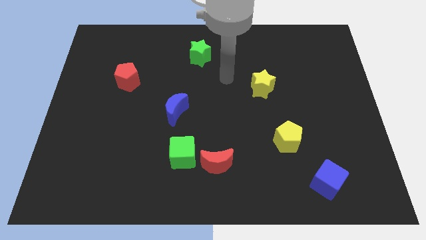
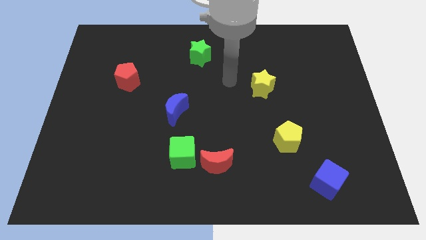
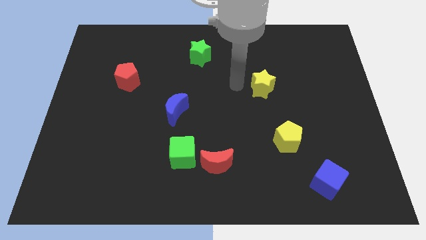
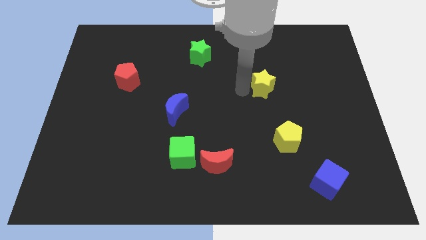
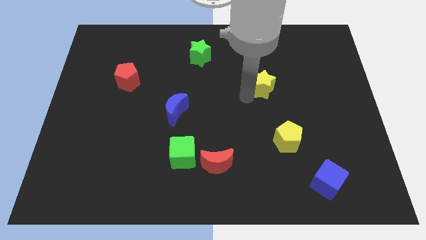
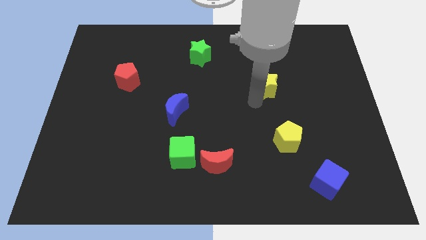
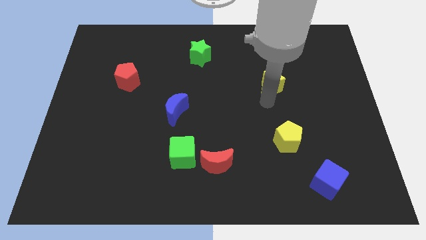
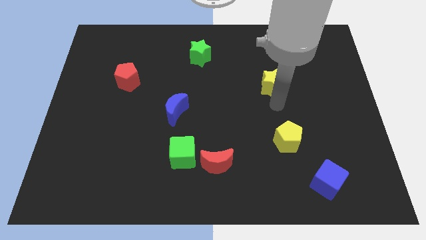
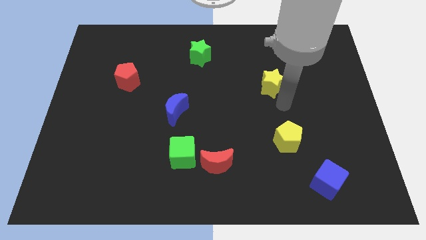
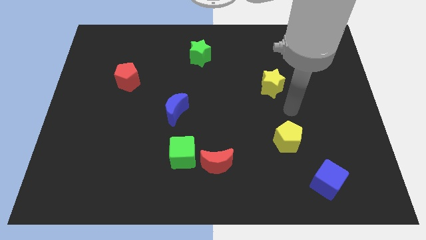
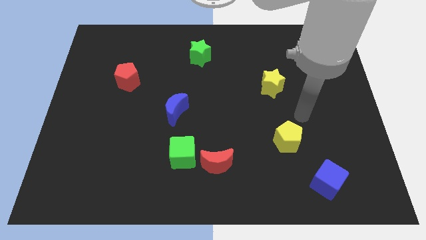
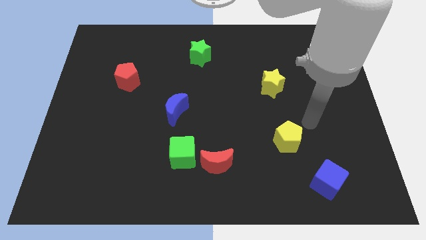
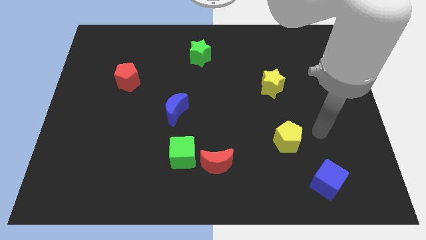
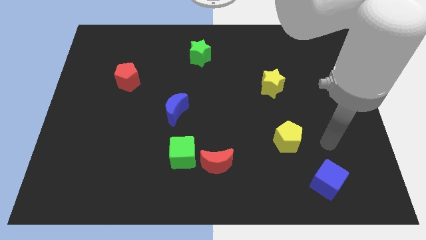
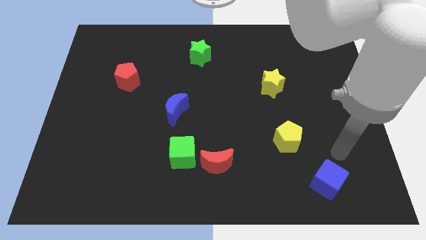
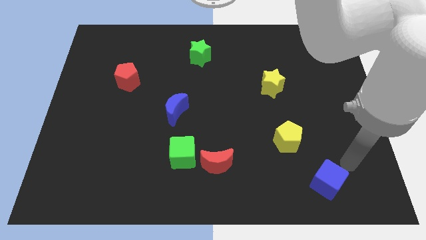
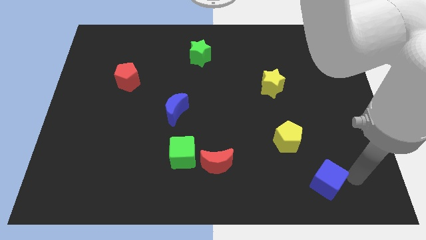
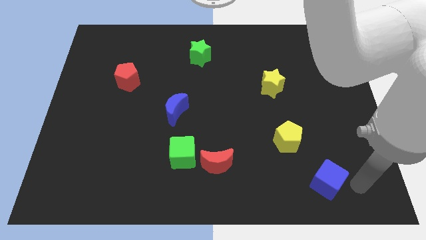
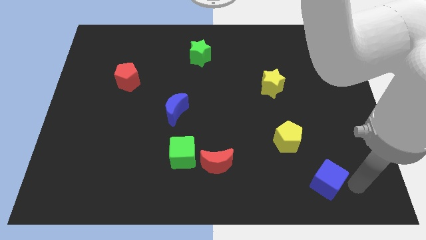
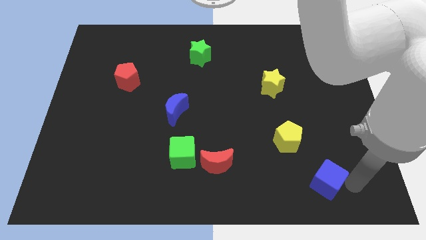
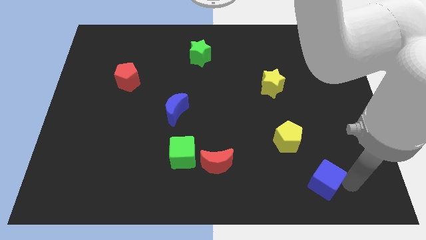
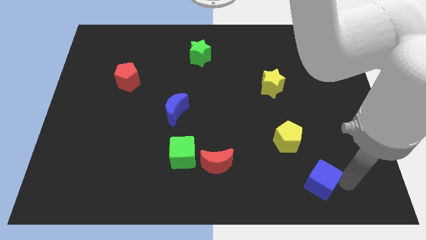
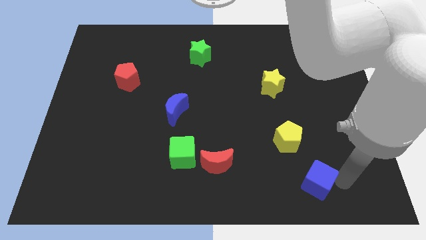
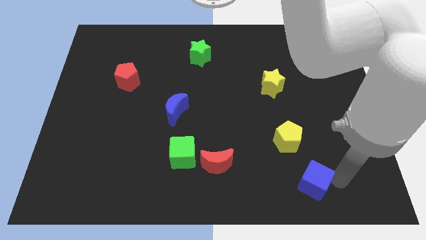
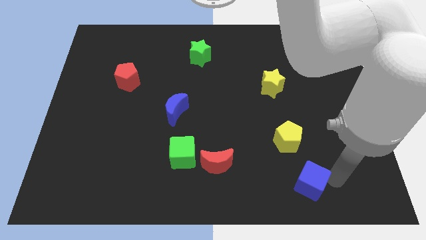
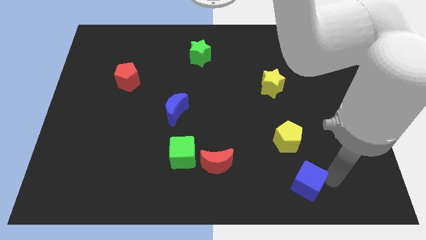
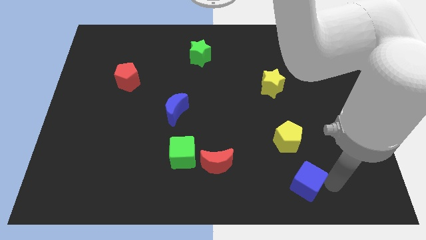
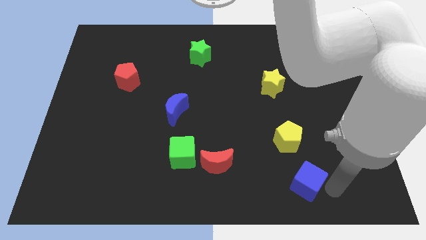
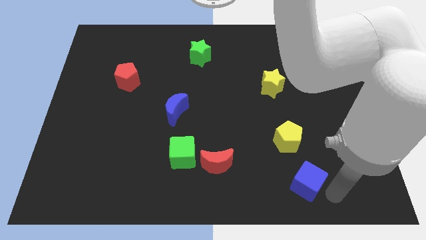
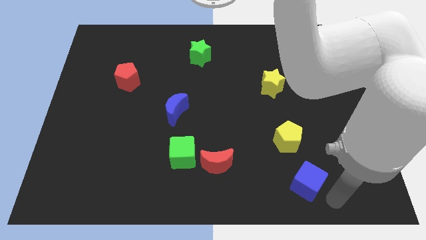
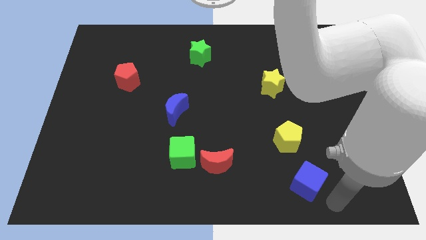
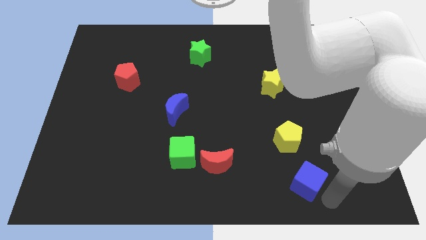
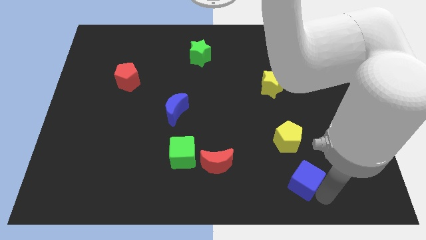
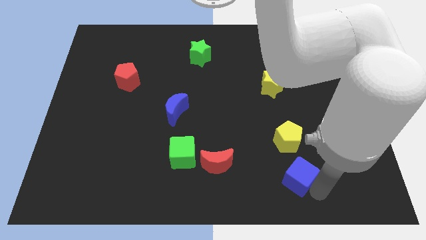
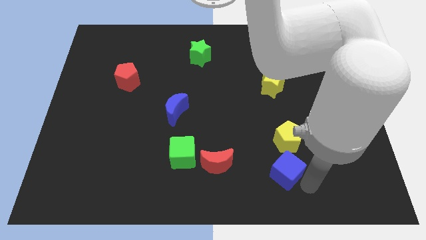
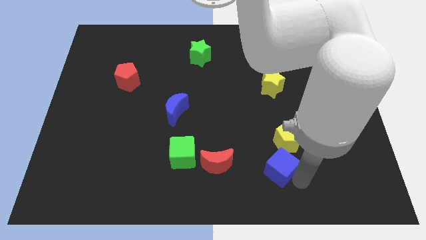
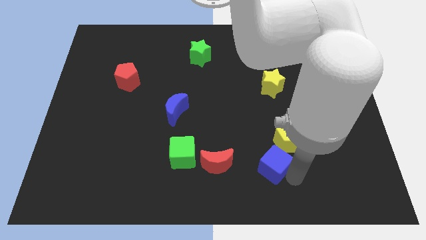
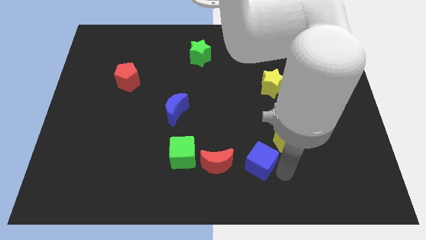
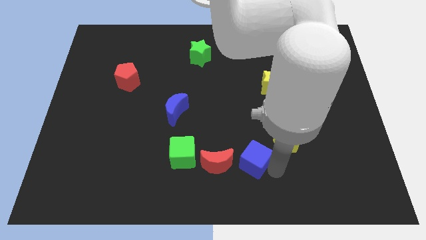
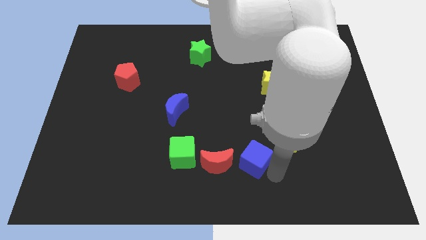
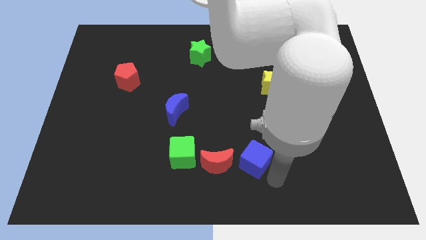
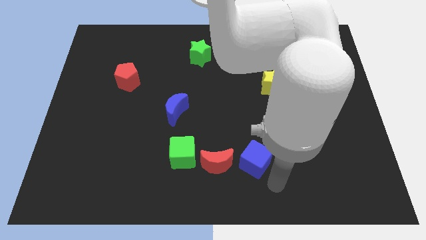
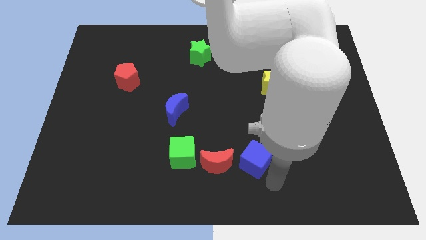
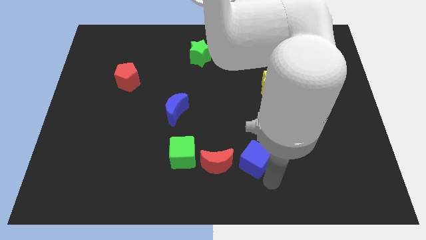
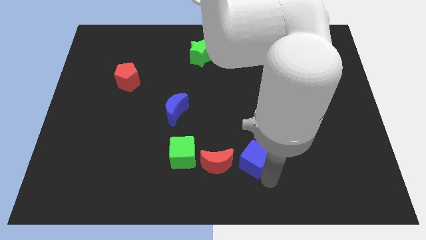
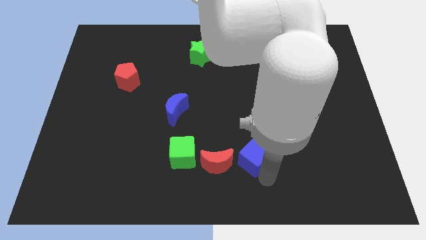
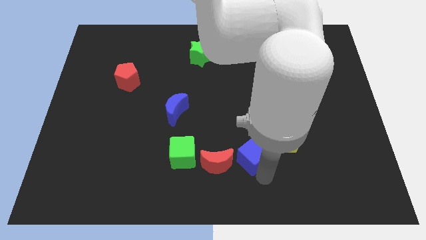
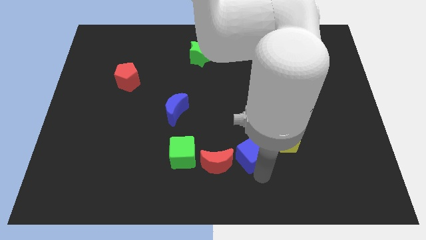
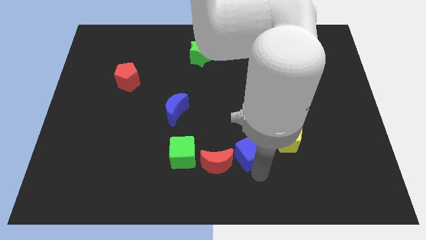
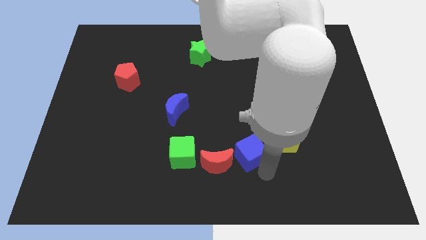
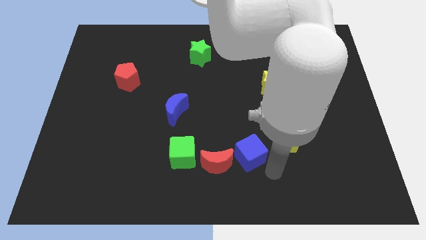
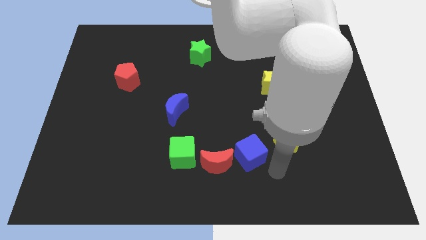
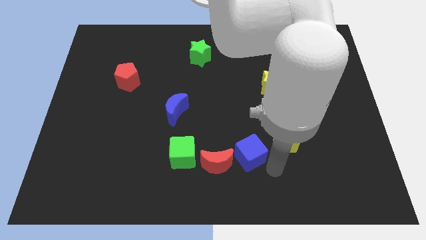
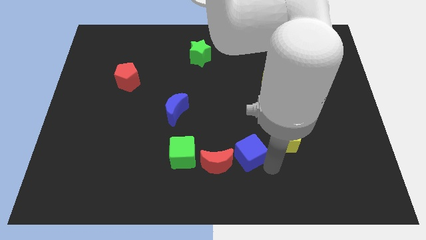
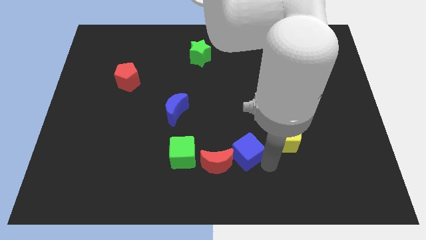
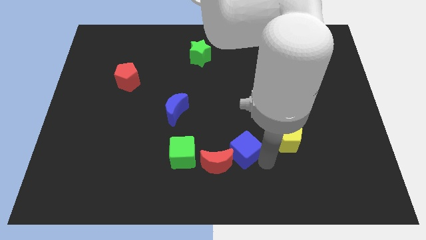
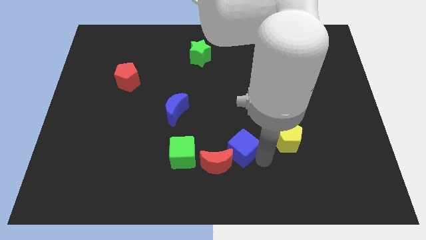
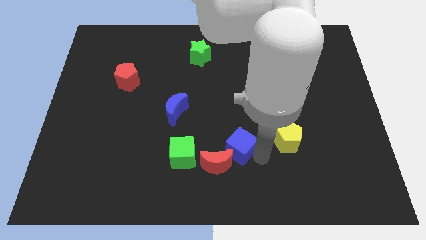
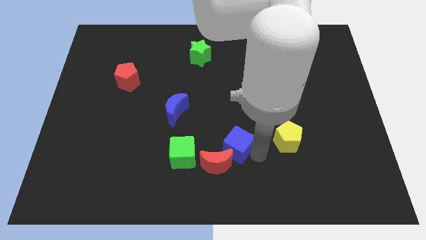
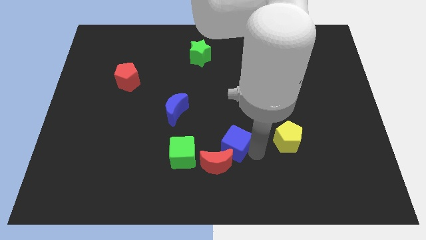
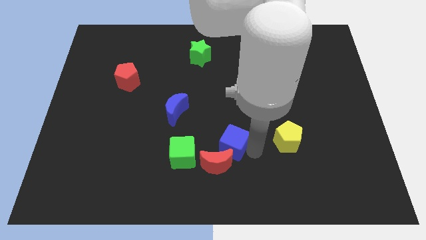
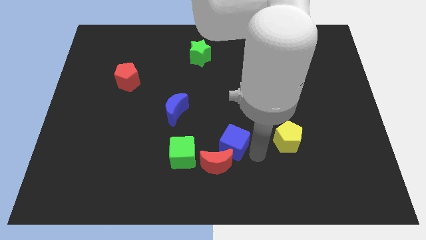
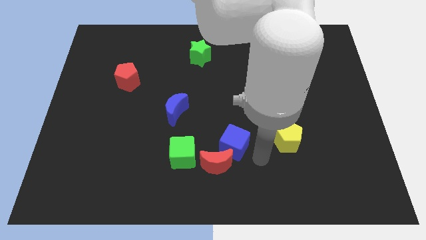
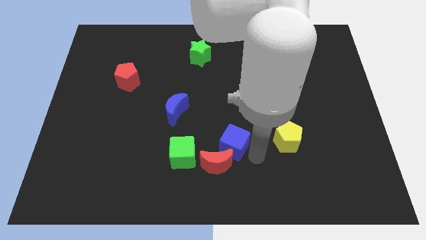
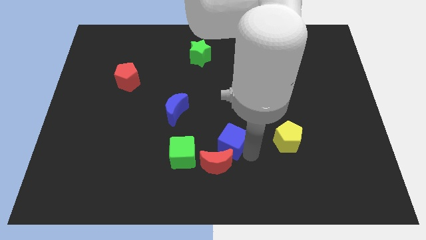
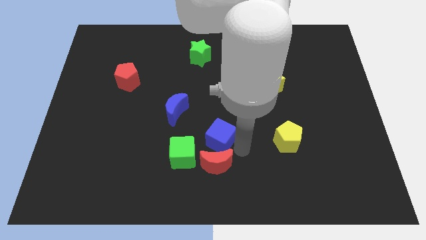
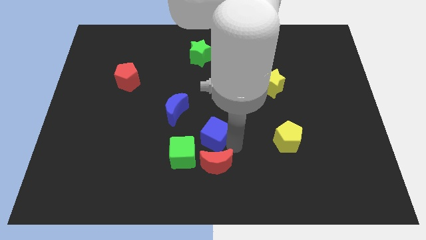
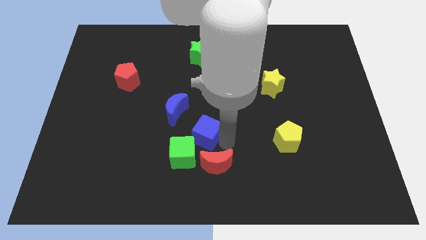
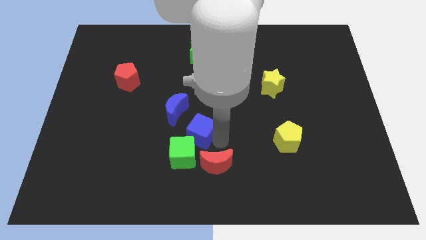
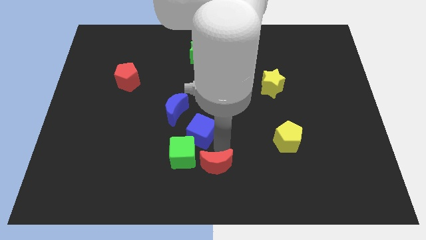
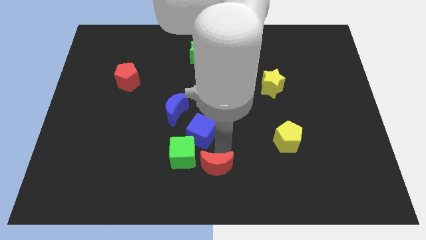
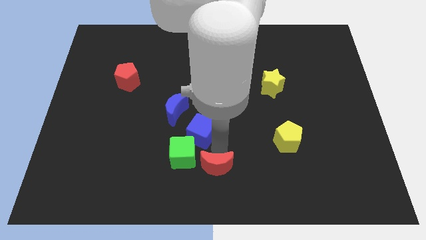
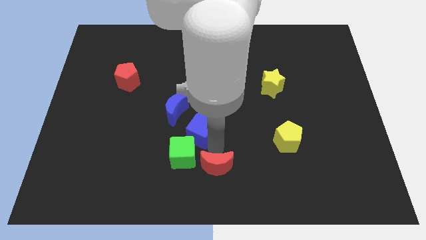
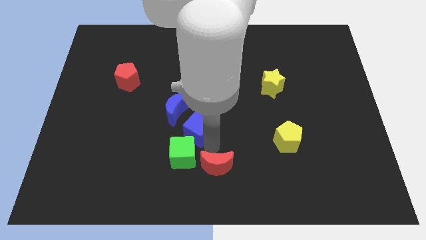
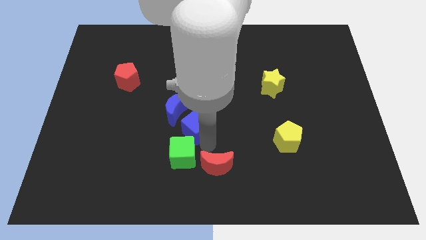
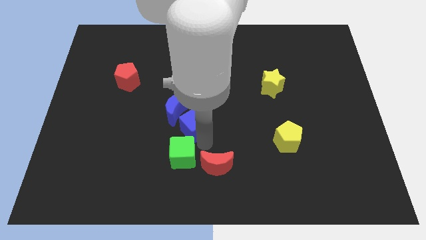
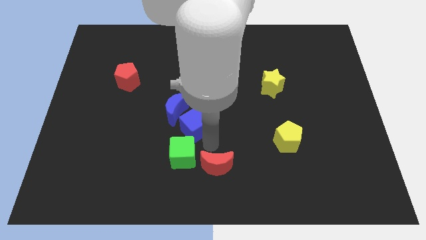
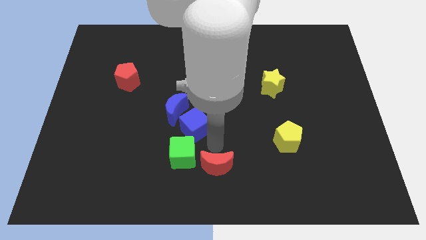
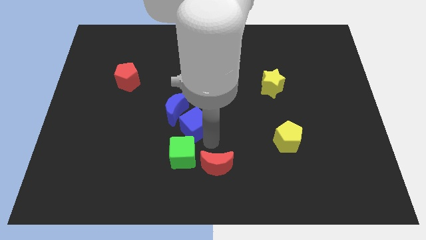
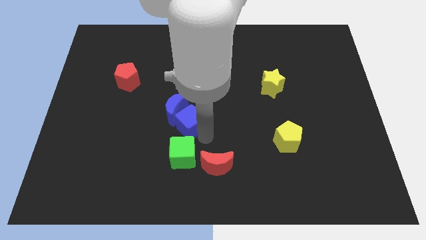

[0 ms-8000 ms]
push the blue cube next to the blue moon
